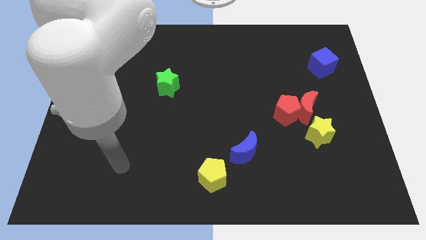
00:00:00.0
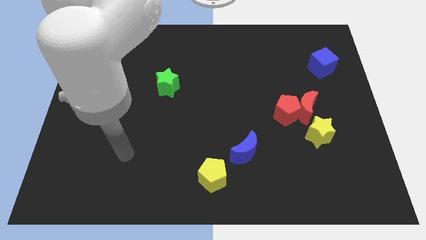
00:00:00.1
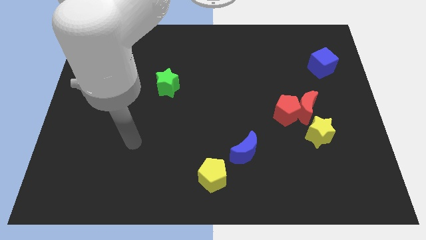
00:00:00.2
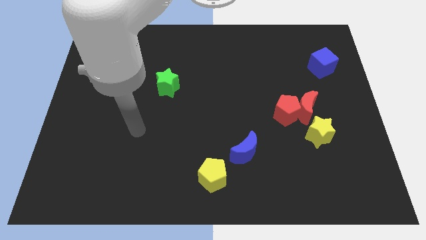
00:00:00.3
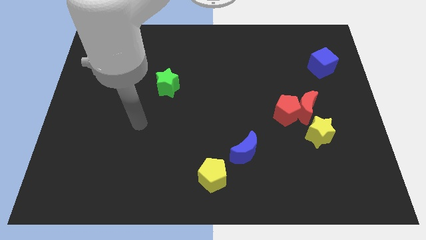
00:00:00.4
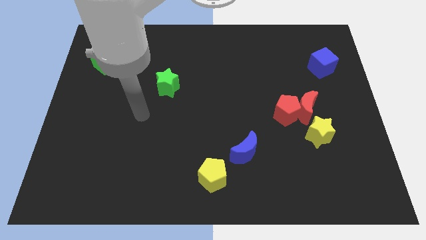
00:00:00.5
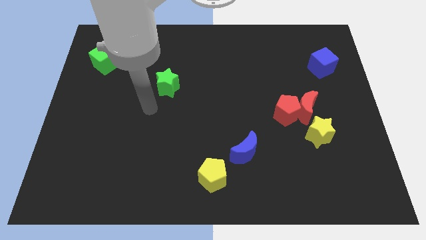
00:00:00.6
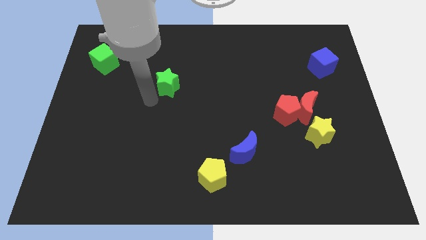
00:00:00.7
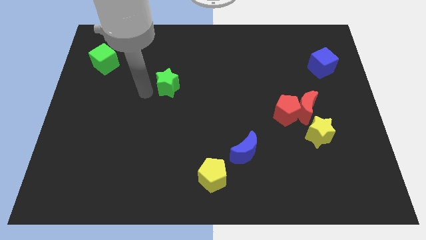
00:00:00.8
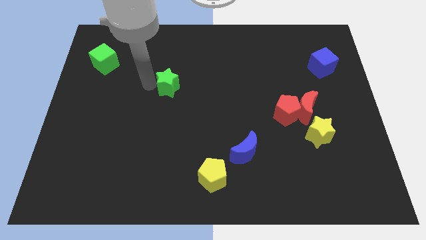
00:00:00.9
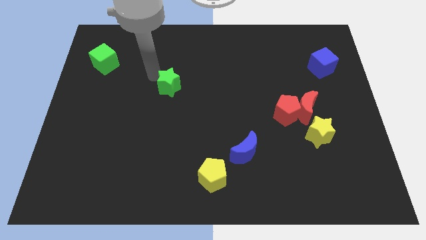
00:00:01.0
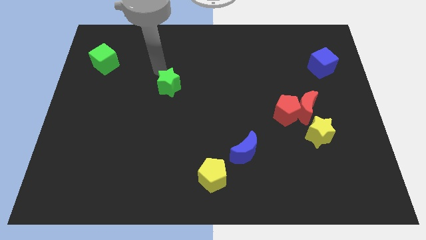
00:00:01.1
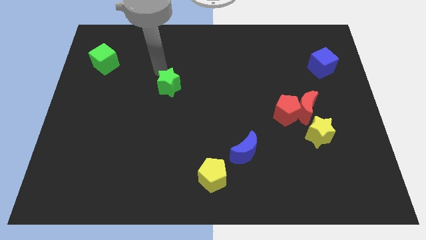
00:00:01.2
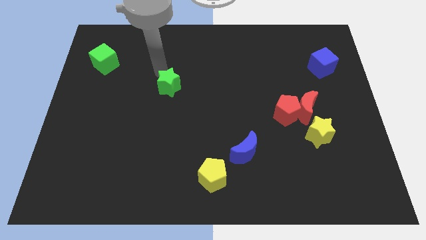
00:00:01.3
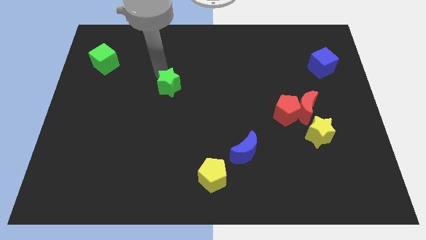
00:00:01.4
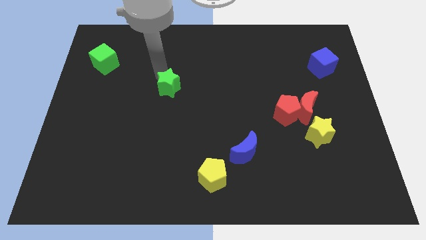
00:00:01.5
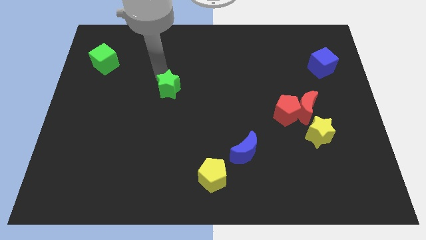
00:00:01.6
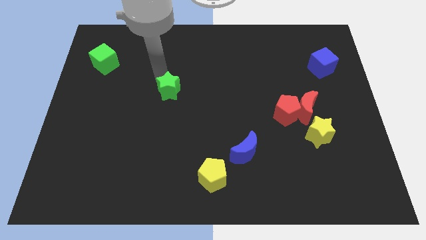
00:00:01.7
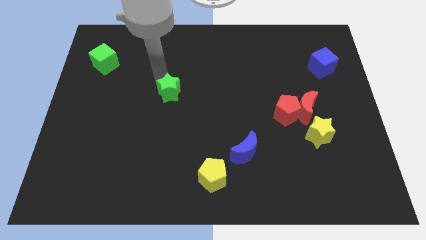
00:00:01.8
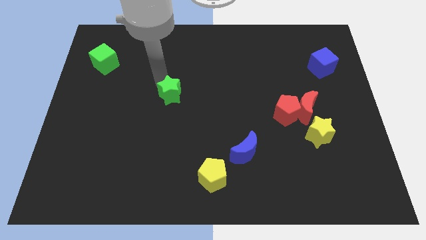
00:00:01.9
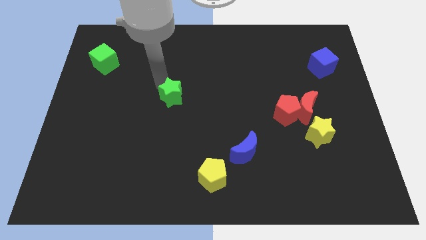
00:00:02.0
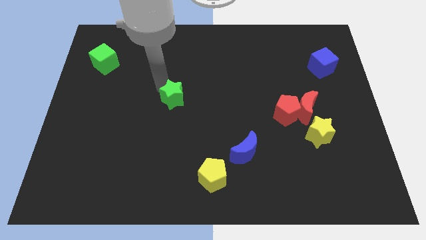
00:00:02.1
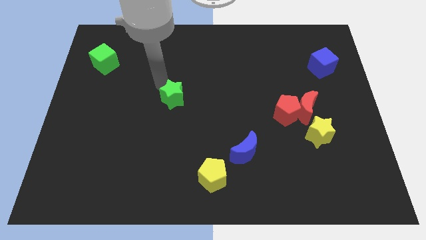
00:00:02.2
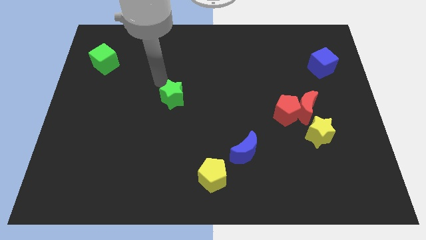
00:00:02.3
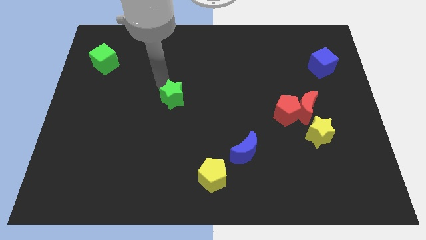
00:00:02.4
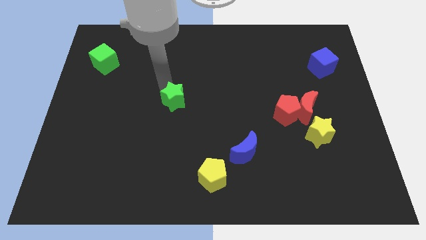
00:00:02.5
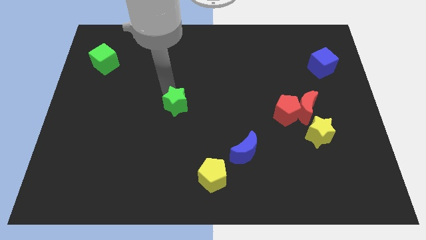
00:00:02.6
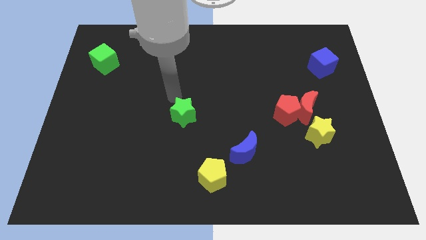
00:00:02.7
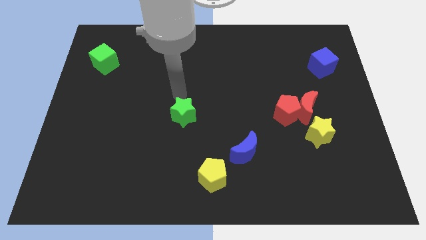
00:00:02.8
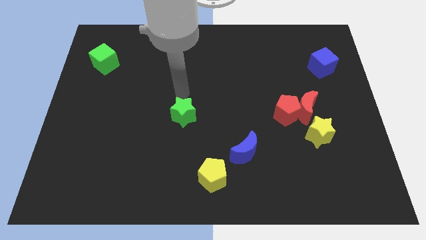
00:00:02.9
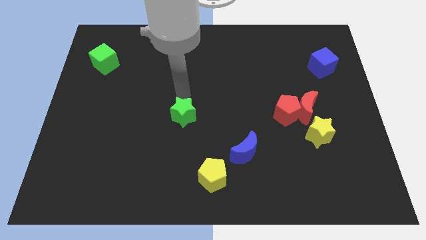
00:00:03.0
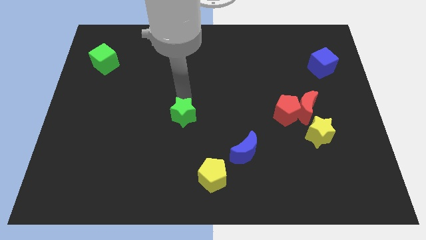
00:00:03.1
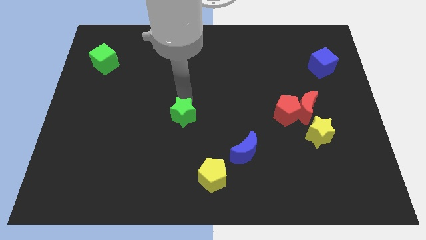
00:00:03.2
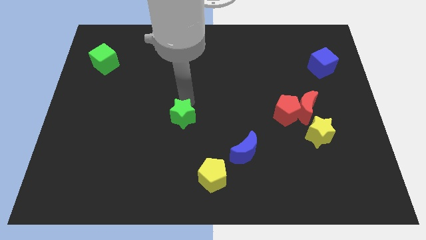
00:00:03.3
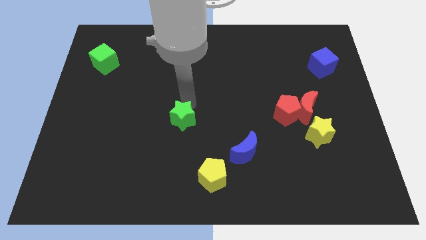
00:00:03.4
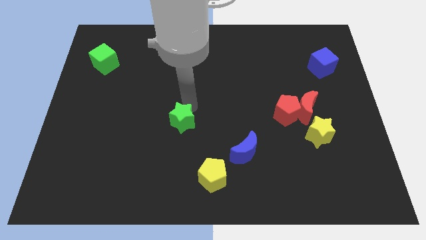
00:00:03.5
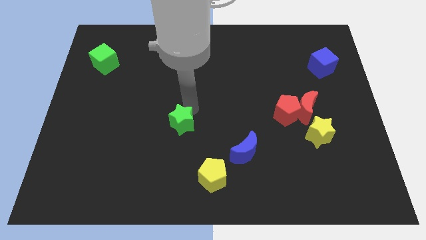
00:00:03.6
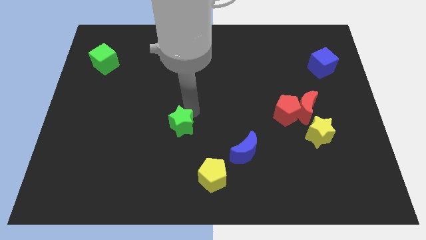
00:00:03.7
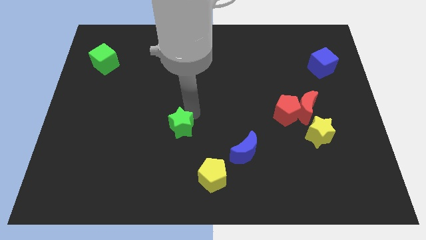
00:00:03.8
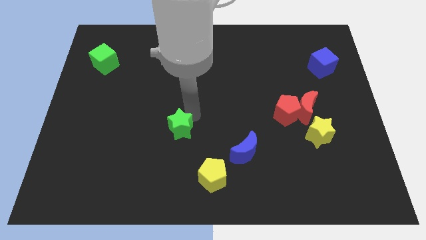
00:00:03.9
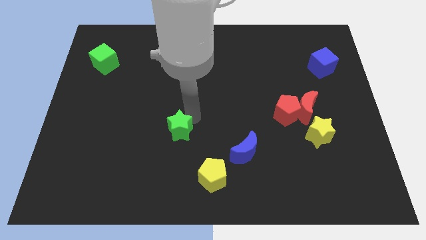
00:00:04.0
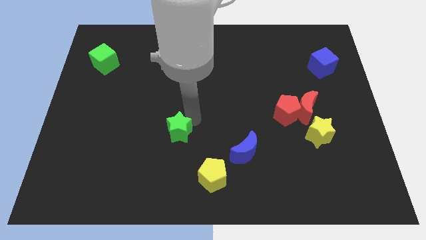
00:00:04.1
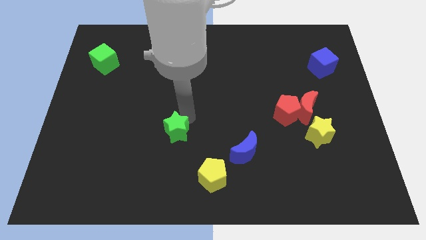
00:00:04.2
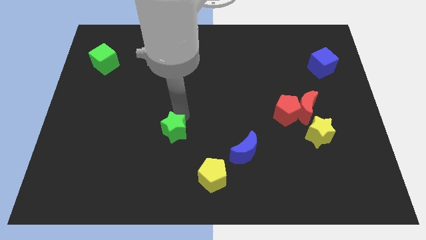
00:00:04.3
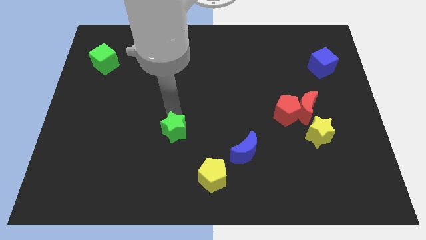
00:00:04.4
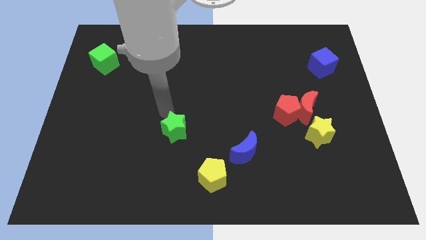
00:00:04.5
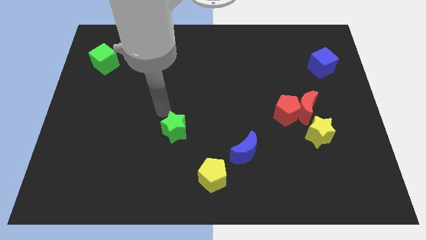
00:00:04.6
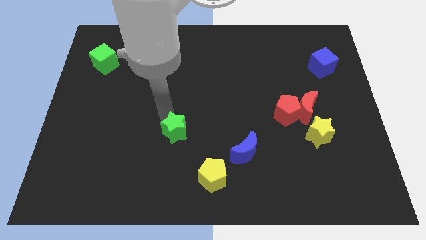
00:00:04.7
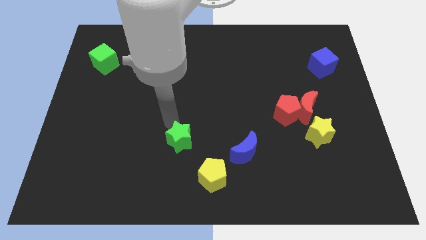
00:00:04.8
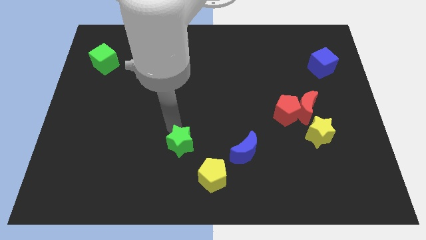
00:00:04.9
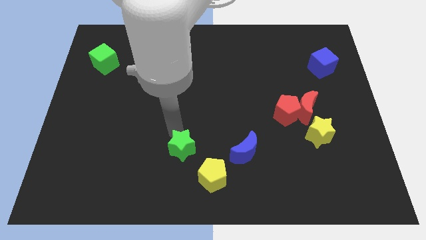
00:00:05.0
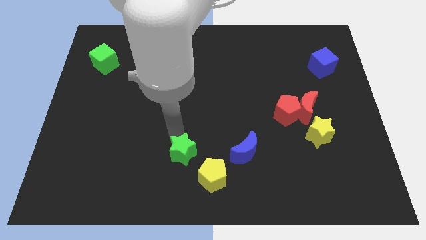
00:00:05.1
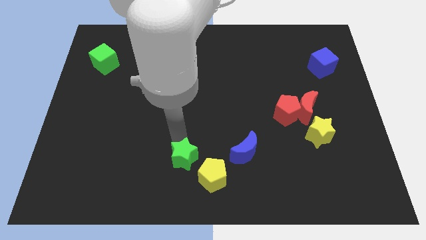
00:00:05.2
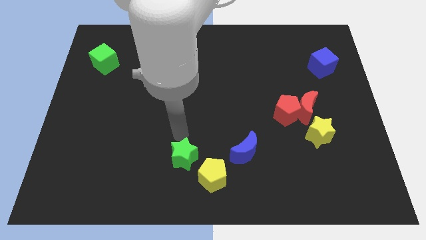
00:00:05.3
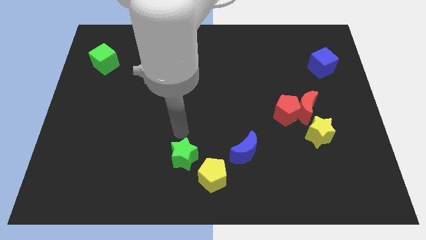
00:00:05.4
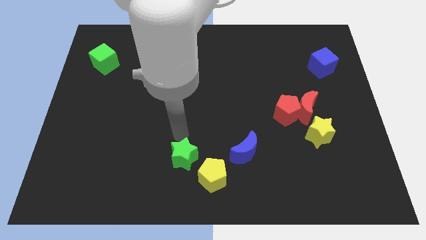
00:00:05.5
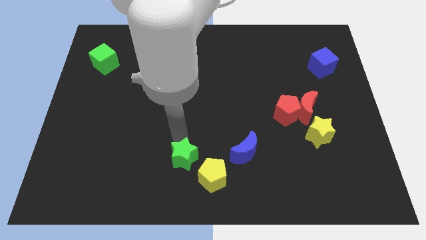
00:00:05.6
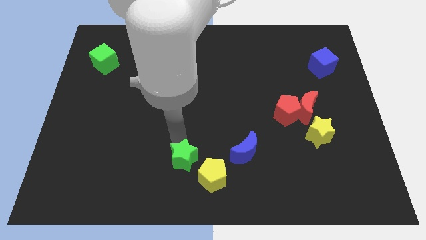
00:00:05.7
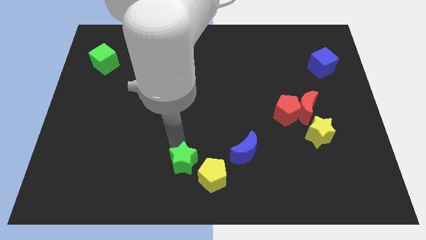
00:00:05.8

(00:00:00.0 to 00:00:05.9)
push the green star to the bottom
